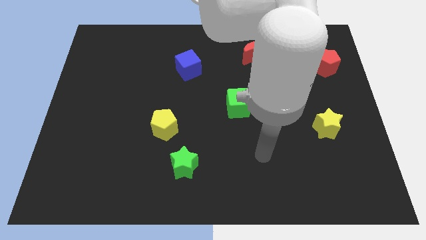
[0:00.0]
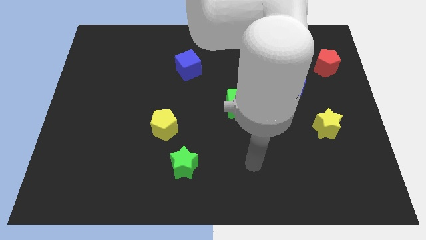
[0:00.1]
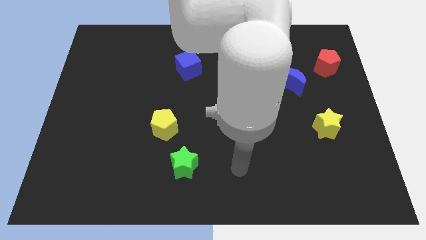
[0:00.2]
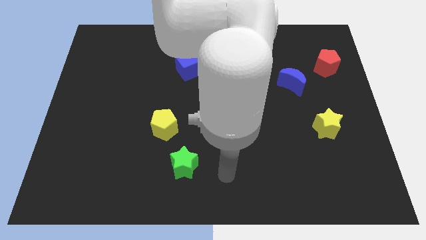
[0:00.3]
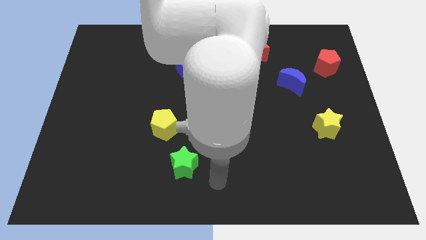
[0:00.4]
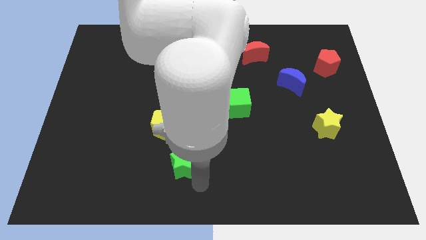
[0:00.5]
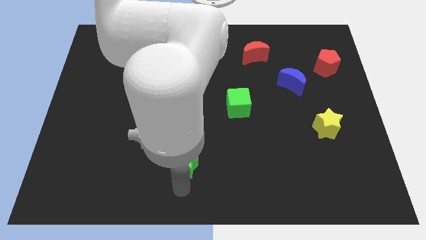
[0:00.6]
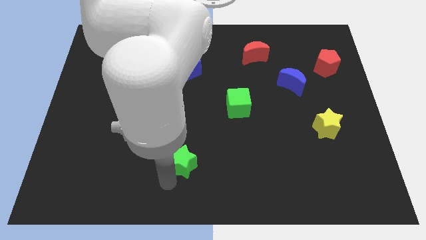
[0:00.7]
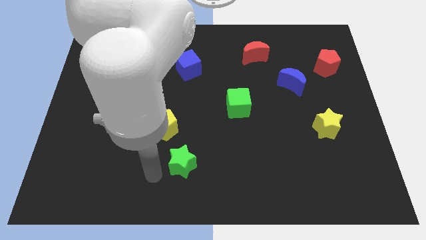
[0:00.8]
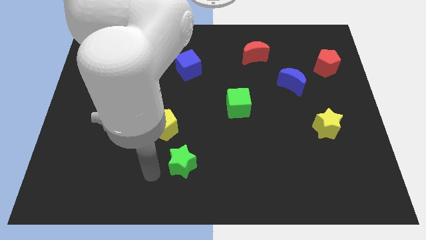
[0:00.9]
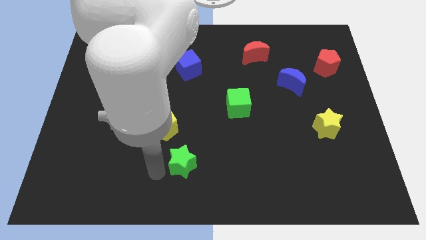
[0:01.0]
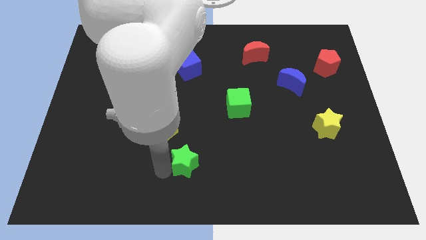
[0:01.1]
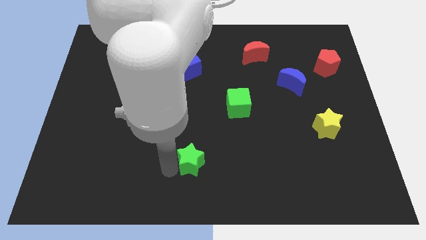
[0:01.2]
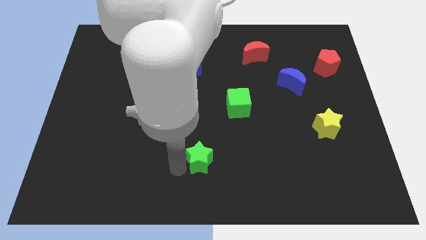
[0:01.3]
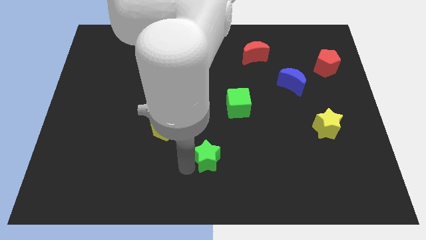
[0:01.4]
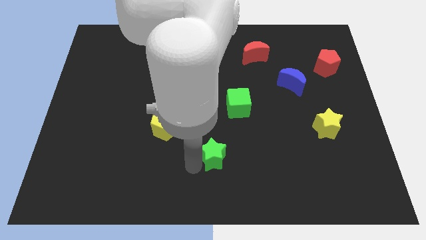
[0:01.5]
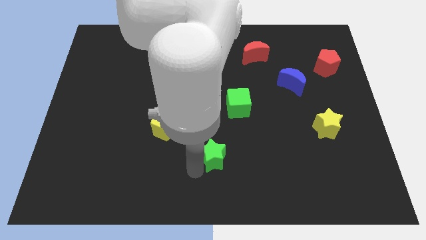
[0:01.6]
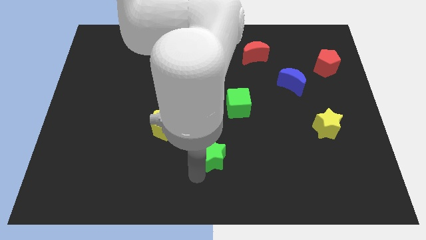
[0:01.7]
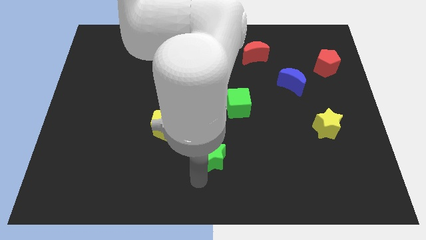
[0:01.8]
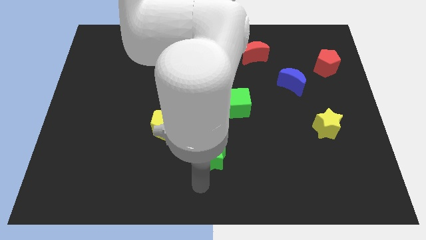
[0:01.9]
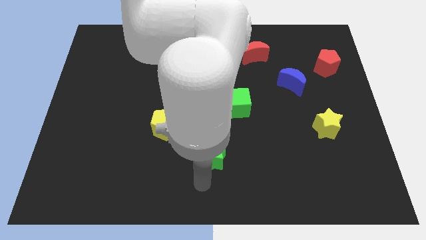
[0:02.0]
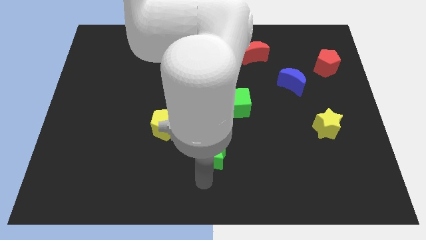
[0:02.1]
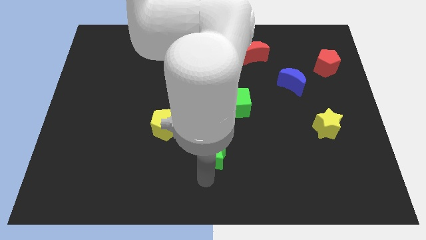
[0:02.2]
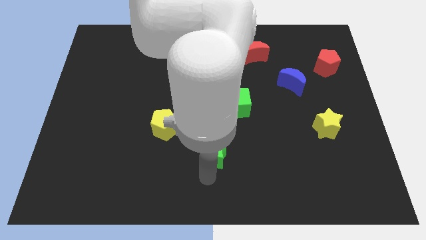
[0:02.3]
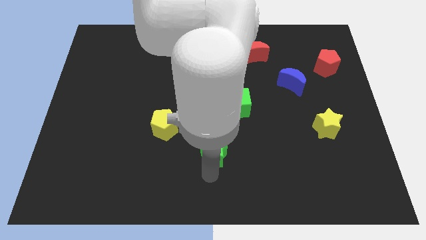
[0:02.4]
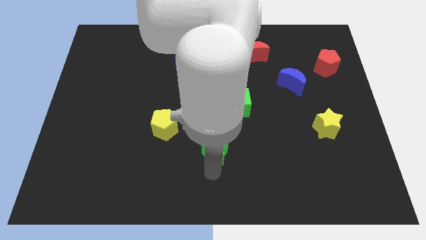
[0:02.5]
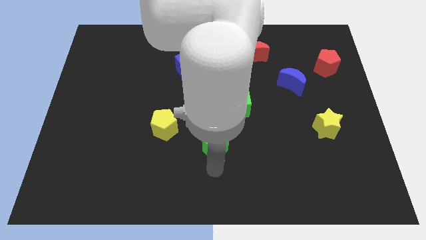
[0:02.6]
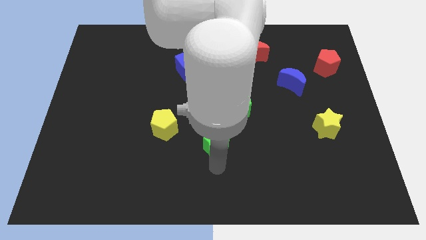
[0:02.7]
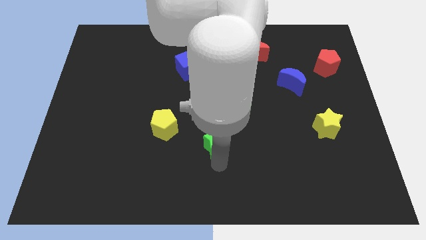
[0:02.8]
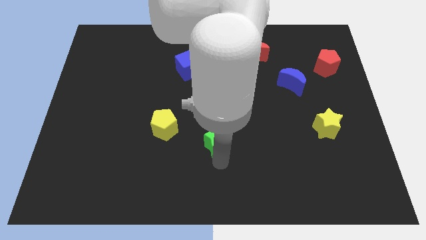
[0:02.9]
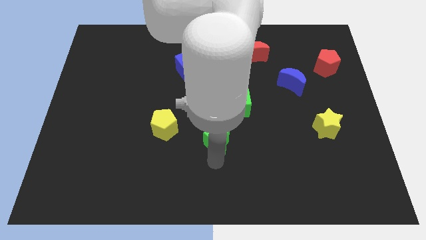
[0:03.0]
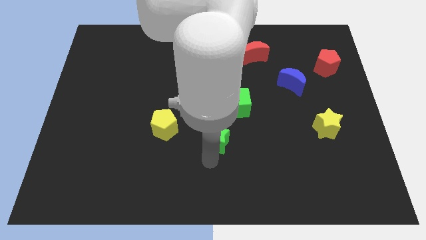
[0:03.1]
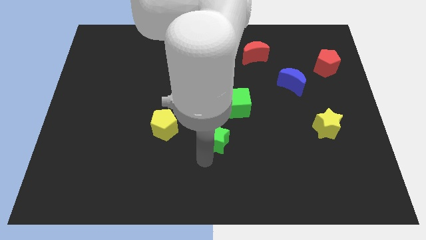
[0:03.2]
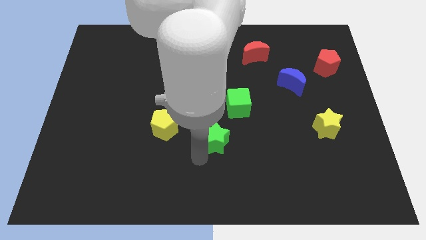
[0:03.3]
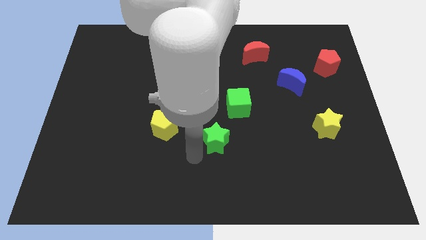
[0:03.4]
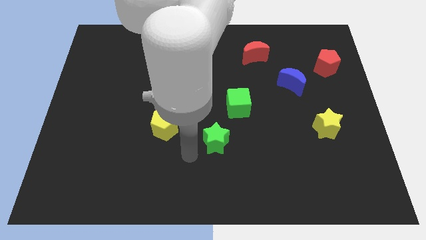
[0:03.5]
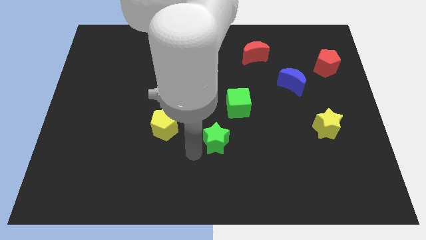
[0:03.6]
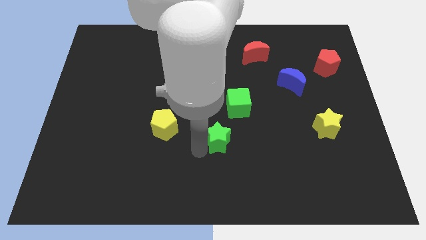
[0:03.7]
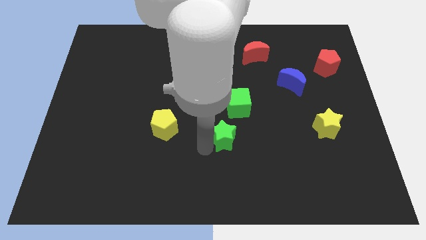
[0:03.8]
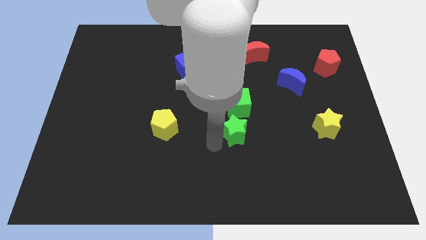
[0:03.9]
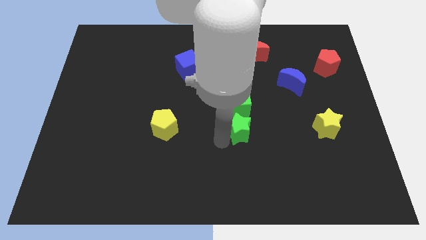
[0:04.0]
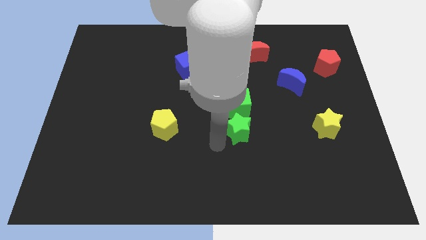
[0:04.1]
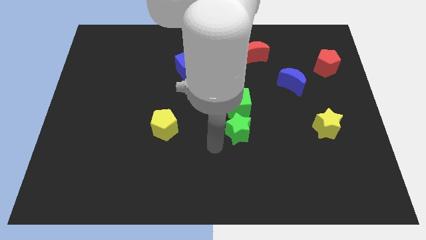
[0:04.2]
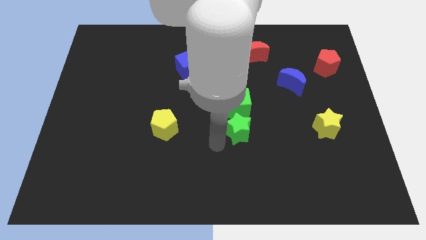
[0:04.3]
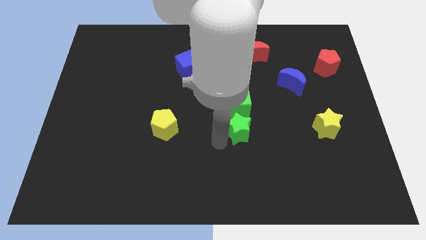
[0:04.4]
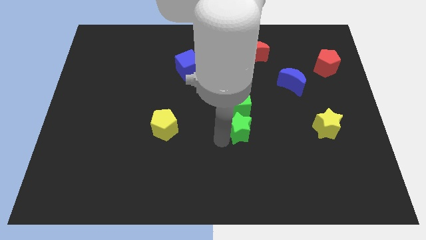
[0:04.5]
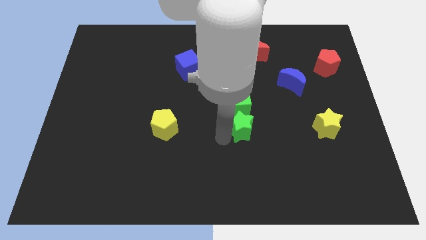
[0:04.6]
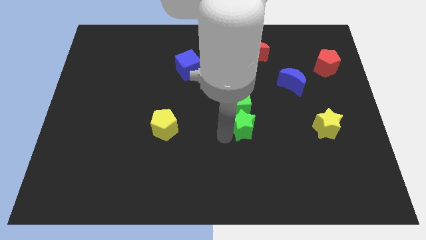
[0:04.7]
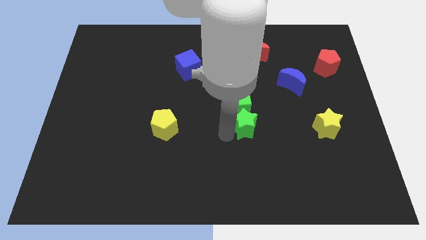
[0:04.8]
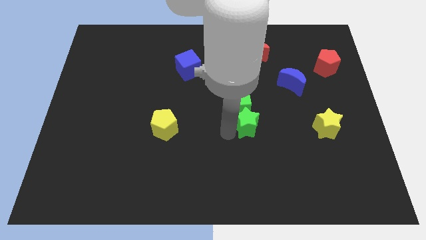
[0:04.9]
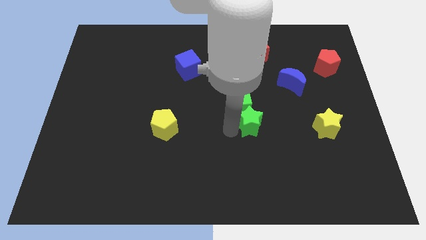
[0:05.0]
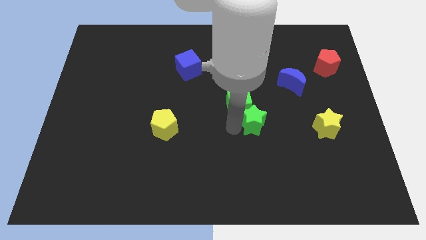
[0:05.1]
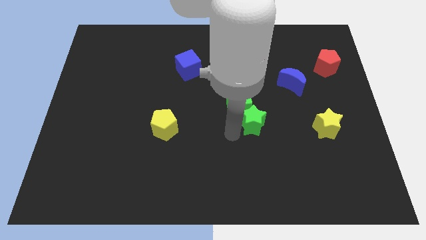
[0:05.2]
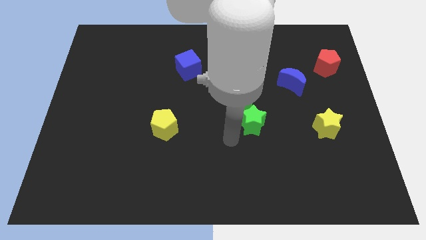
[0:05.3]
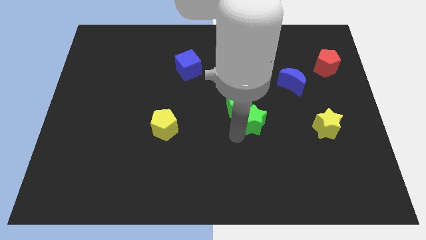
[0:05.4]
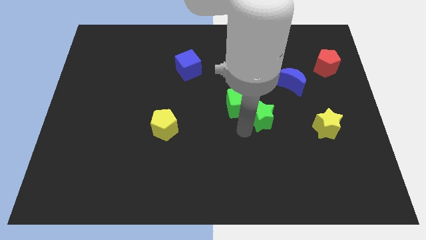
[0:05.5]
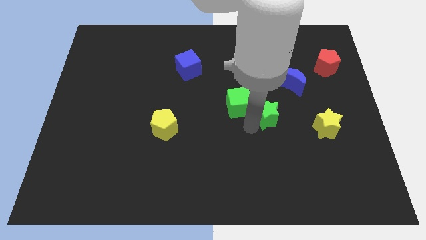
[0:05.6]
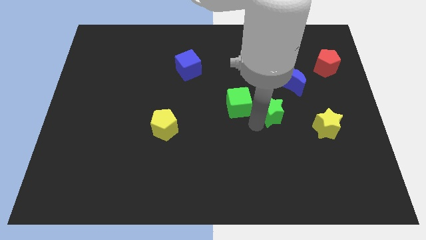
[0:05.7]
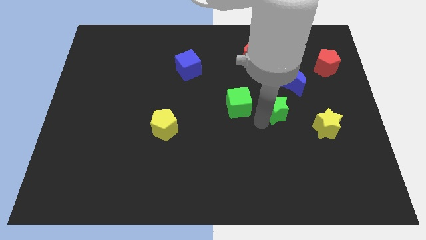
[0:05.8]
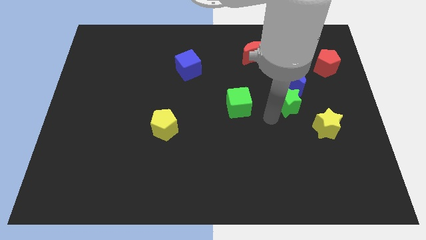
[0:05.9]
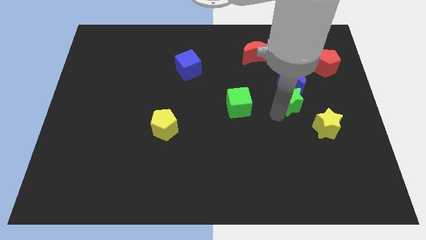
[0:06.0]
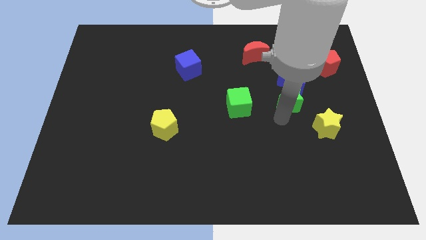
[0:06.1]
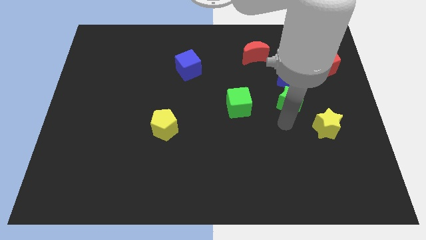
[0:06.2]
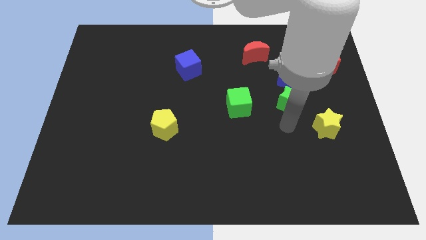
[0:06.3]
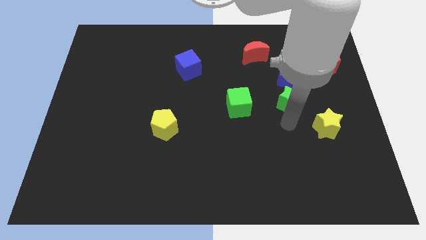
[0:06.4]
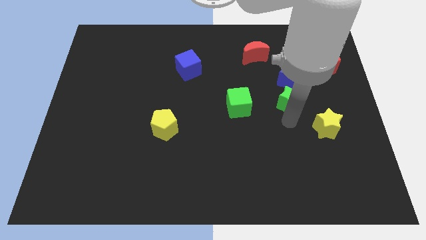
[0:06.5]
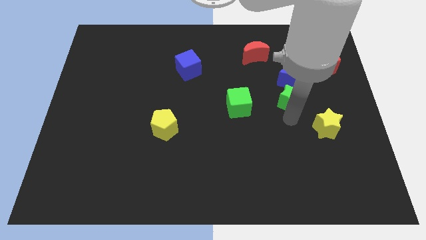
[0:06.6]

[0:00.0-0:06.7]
put the green star to the blue moon

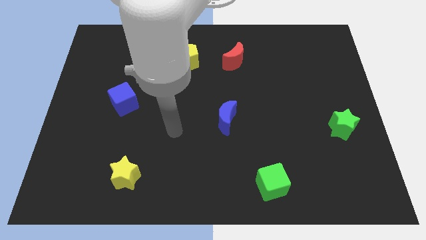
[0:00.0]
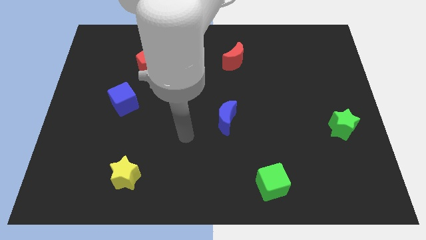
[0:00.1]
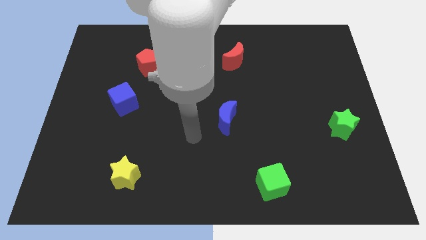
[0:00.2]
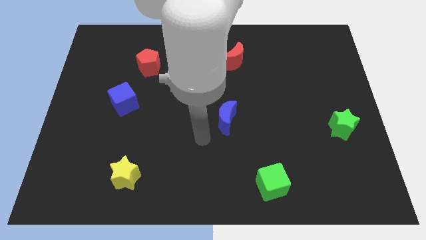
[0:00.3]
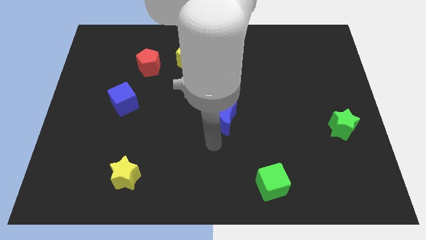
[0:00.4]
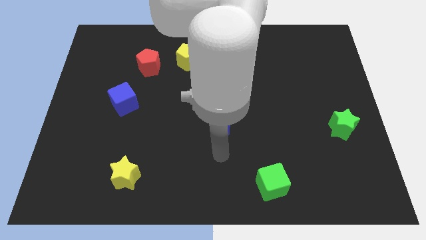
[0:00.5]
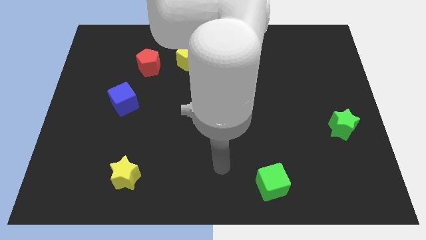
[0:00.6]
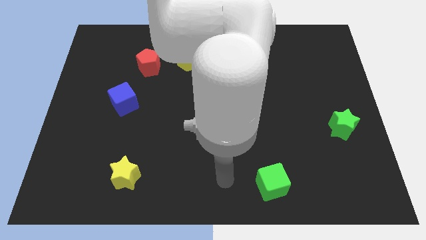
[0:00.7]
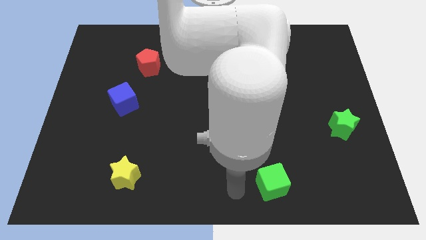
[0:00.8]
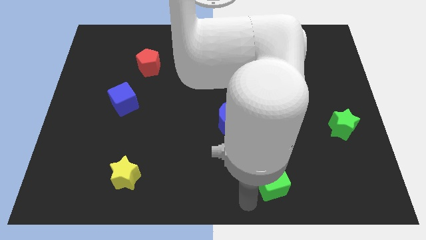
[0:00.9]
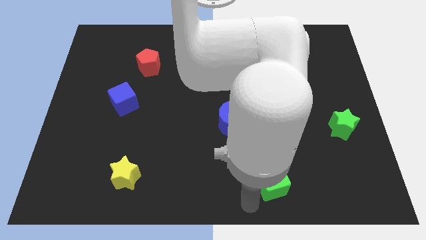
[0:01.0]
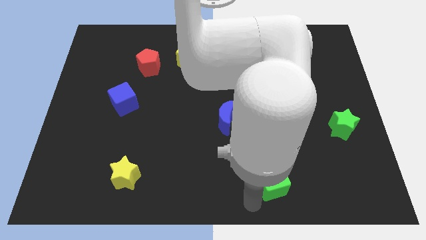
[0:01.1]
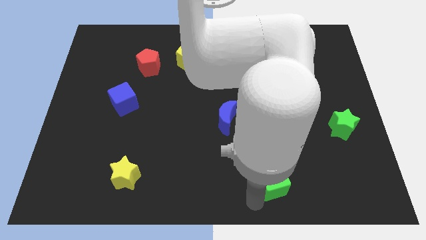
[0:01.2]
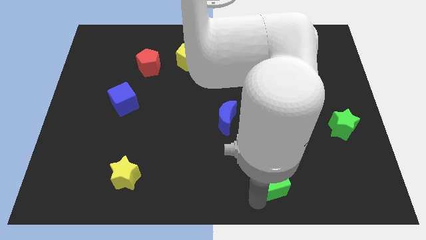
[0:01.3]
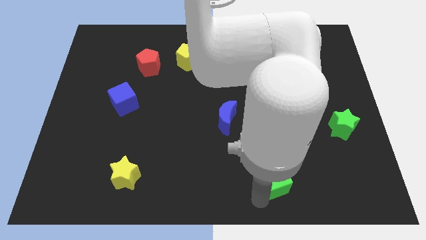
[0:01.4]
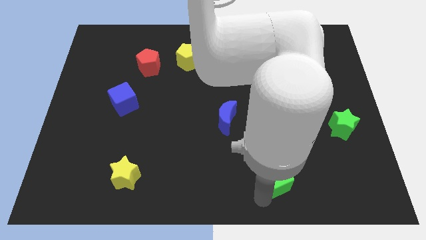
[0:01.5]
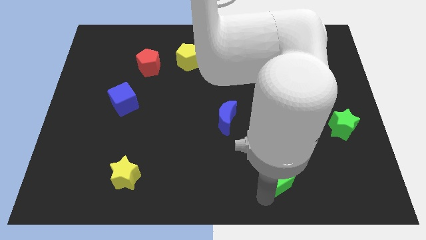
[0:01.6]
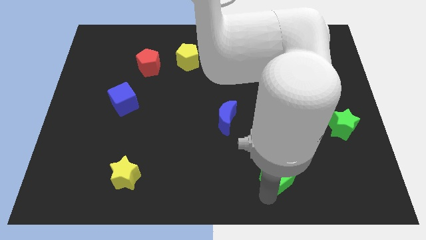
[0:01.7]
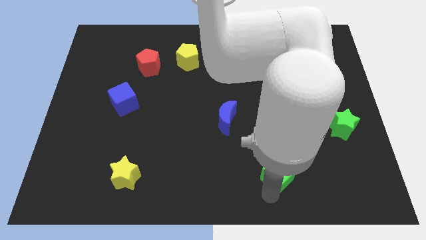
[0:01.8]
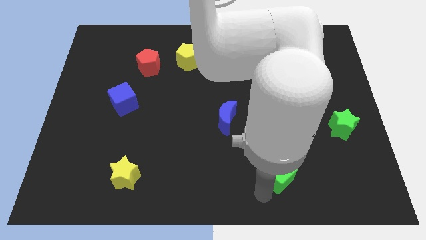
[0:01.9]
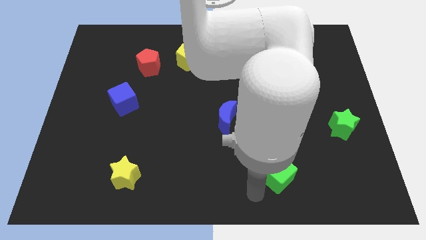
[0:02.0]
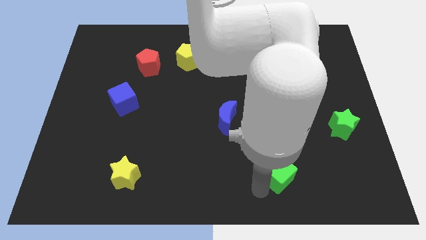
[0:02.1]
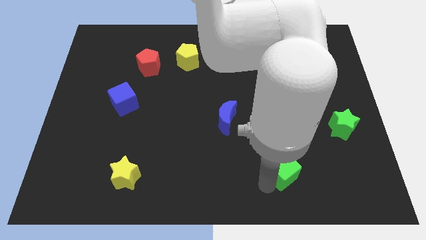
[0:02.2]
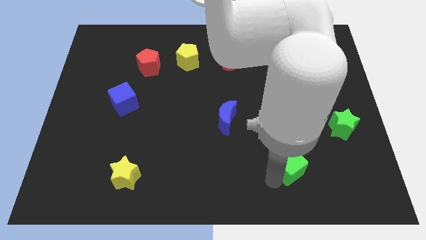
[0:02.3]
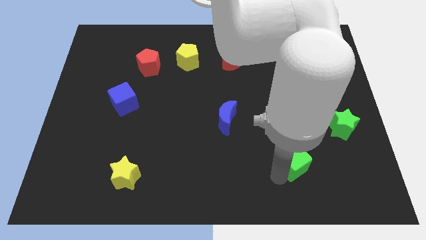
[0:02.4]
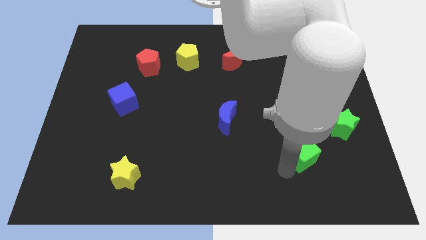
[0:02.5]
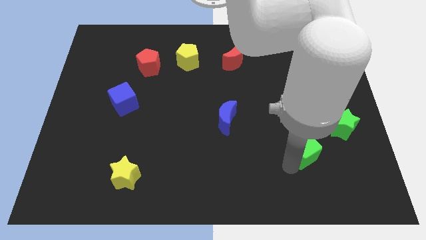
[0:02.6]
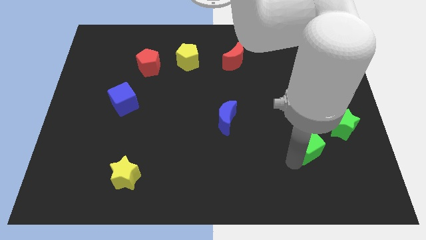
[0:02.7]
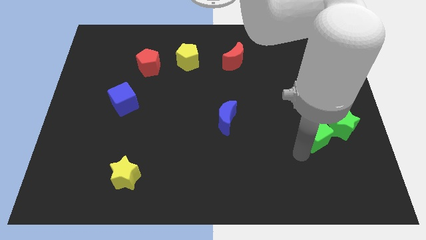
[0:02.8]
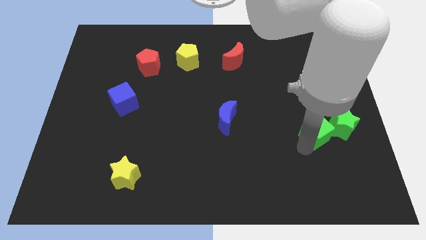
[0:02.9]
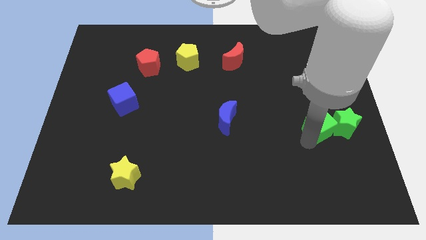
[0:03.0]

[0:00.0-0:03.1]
slide the green cube close to the green star
